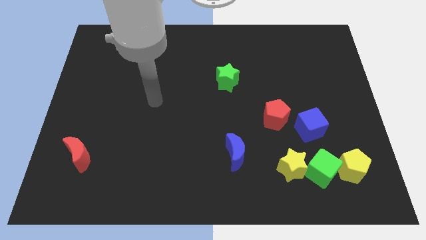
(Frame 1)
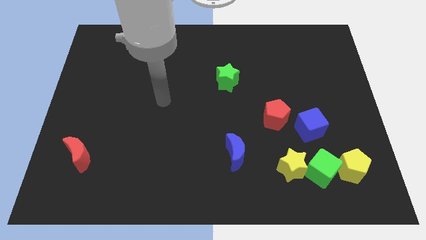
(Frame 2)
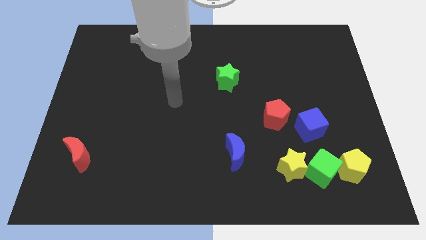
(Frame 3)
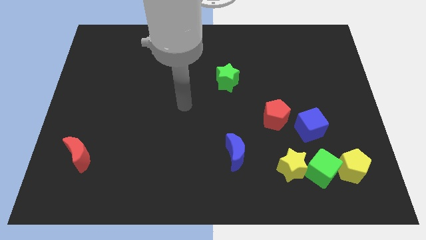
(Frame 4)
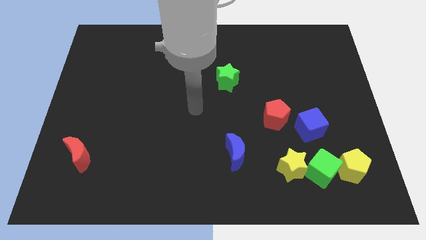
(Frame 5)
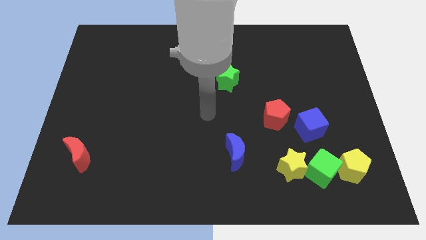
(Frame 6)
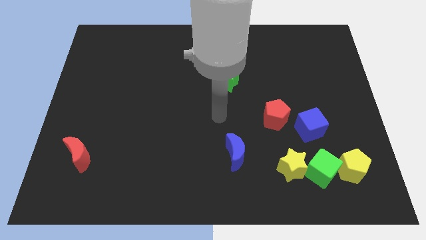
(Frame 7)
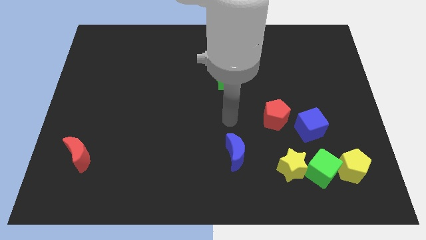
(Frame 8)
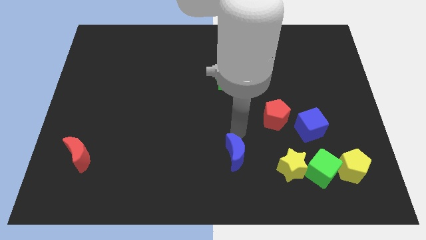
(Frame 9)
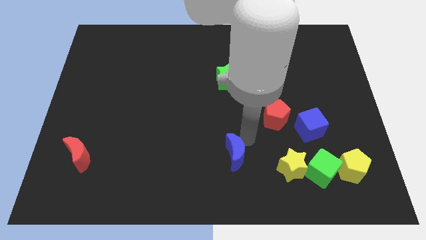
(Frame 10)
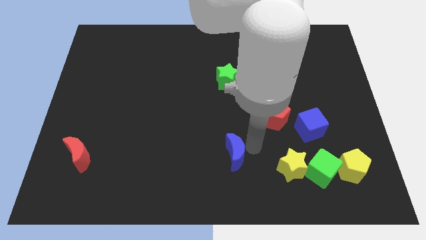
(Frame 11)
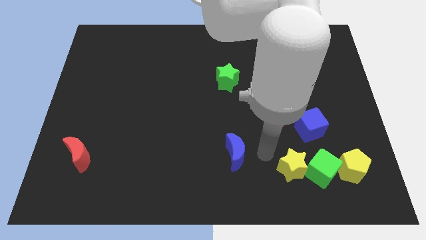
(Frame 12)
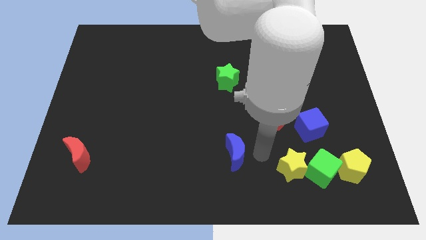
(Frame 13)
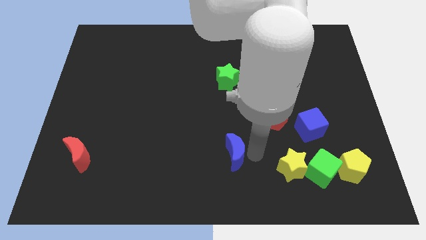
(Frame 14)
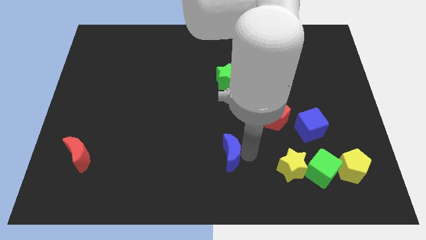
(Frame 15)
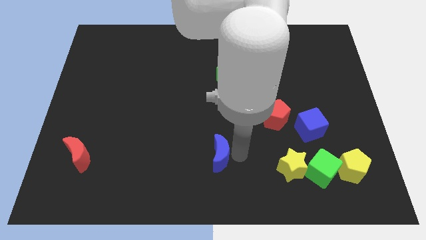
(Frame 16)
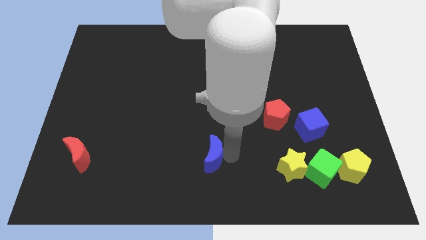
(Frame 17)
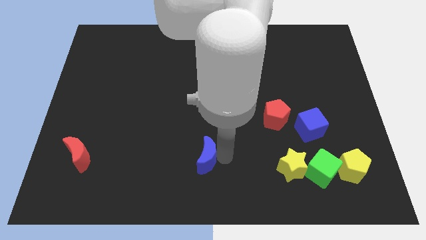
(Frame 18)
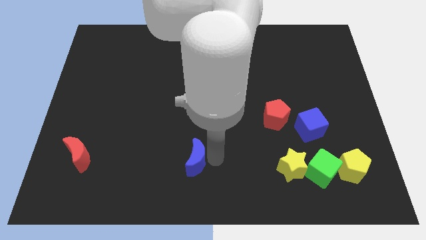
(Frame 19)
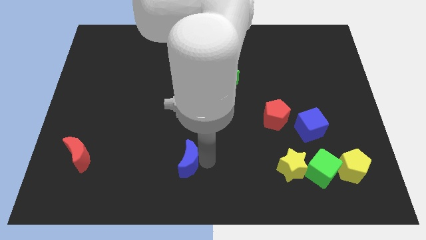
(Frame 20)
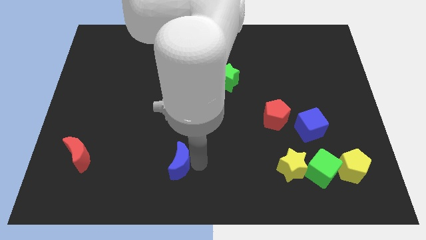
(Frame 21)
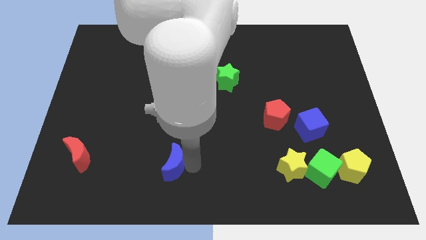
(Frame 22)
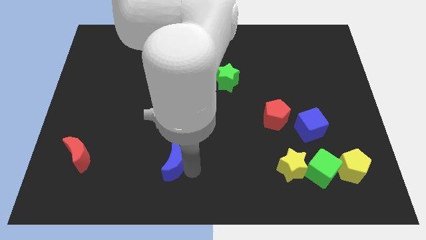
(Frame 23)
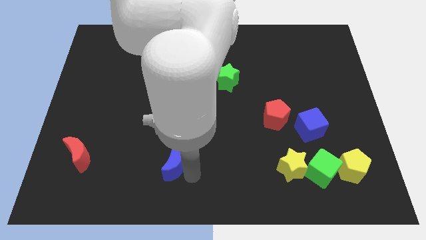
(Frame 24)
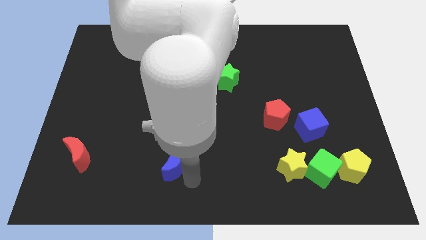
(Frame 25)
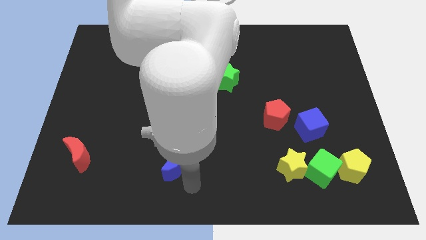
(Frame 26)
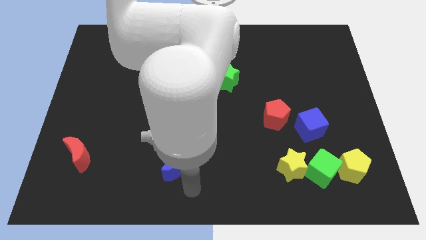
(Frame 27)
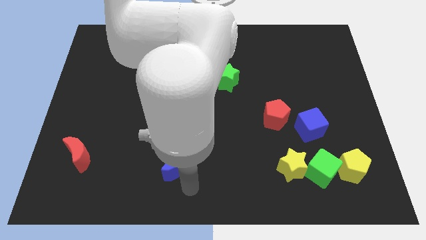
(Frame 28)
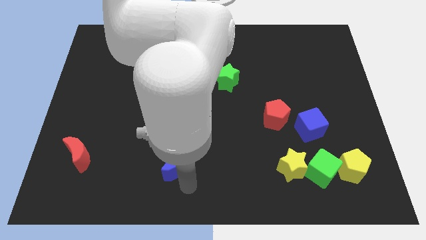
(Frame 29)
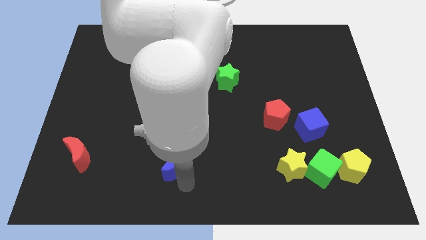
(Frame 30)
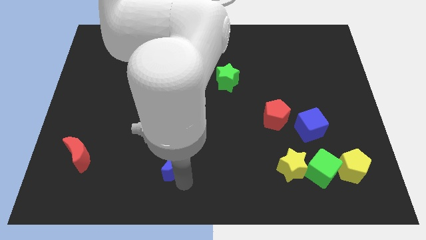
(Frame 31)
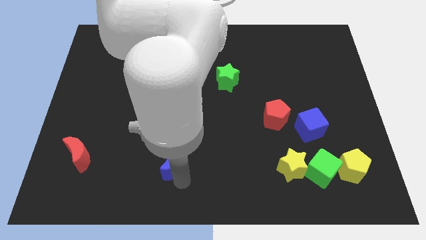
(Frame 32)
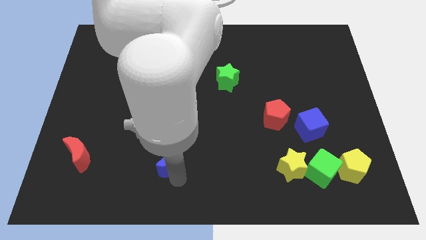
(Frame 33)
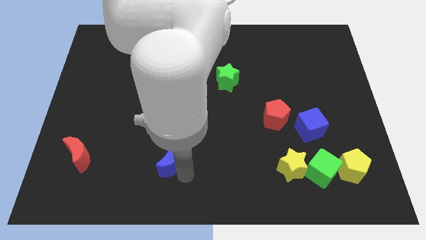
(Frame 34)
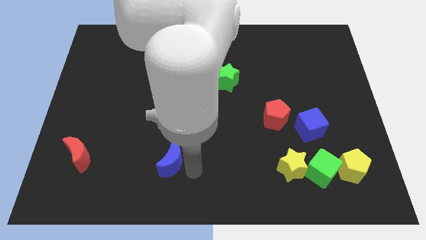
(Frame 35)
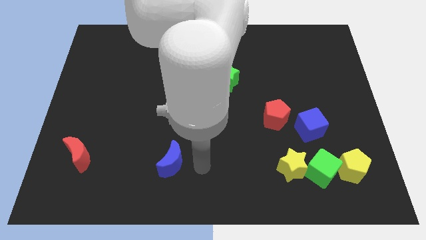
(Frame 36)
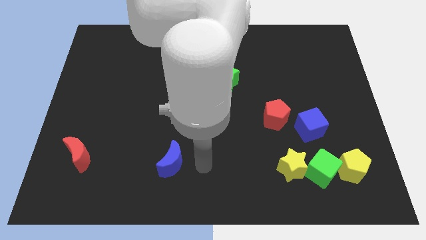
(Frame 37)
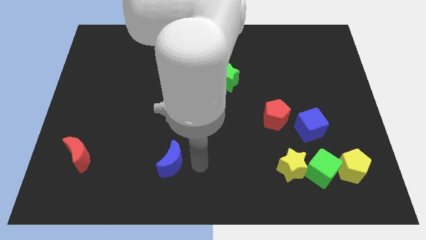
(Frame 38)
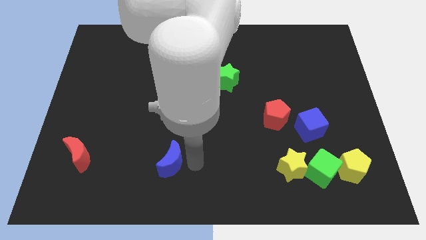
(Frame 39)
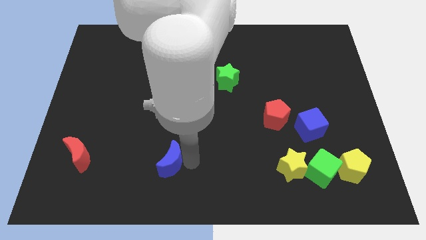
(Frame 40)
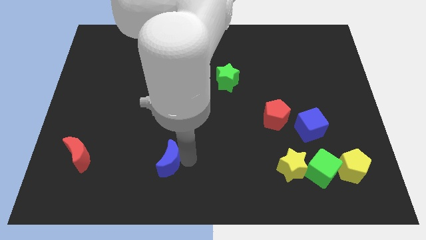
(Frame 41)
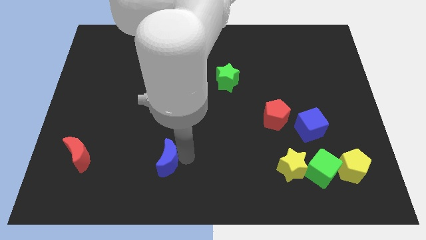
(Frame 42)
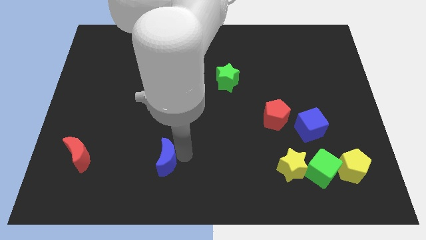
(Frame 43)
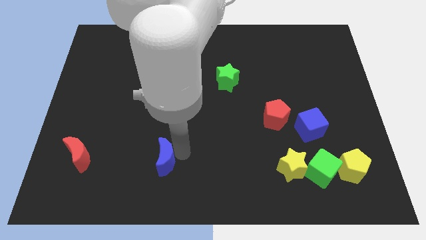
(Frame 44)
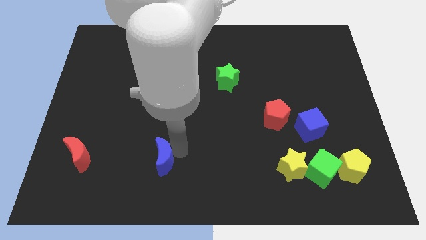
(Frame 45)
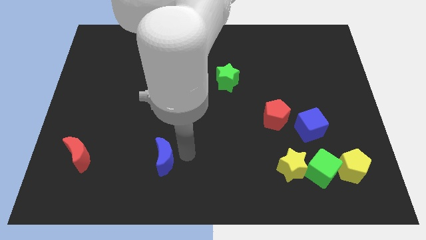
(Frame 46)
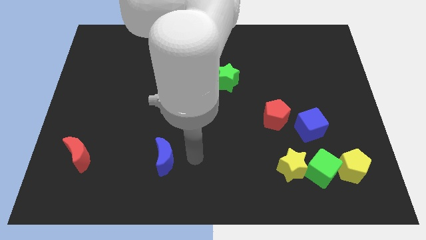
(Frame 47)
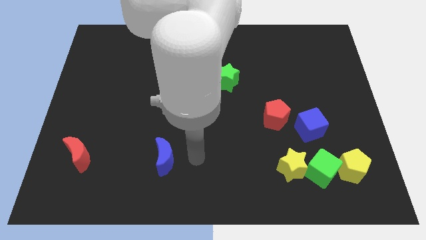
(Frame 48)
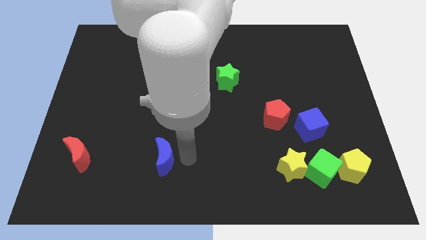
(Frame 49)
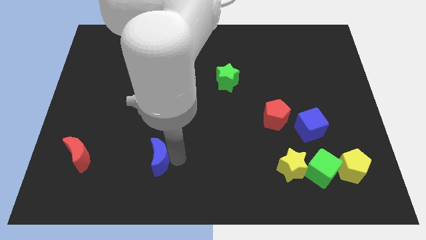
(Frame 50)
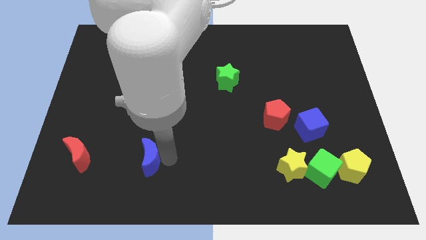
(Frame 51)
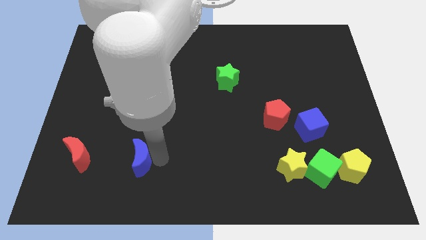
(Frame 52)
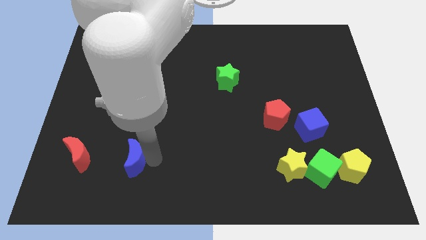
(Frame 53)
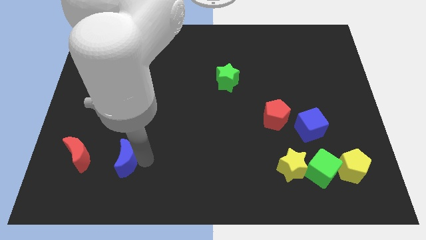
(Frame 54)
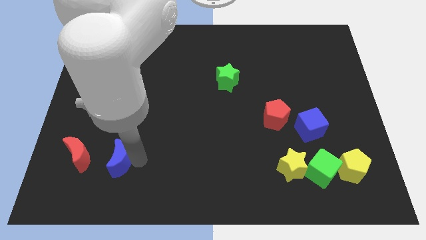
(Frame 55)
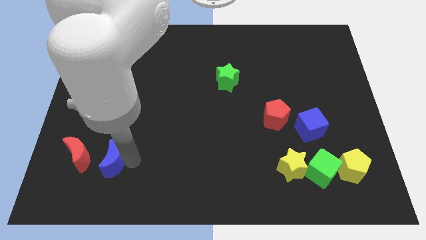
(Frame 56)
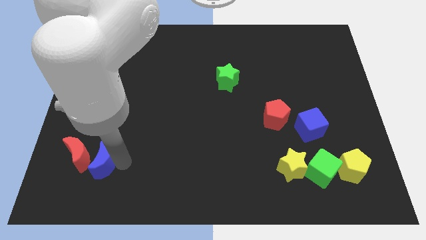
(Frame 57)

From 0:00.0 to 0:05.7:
push the blue moon close to the red moon
